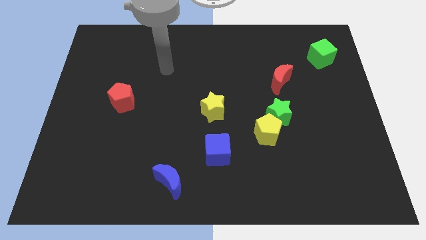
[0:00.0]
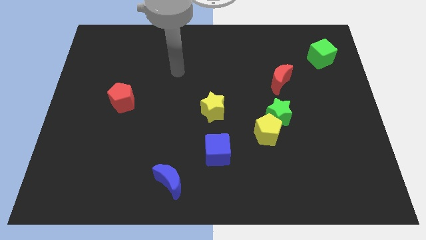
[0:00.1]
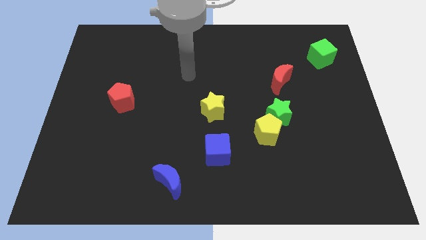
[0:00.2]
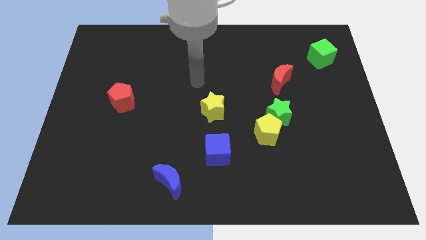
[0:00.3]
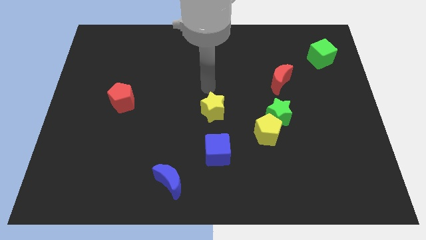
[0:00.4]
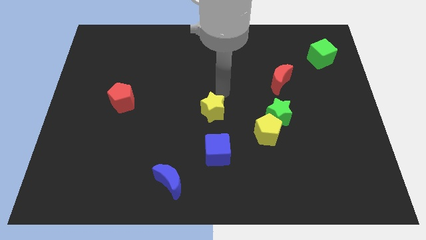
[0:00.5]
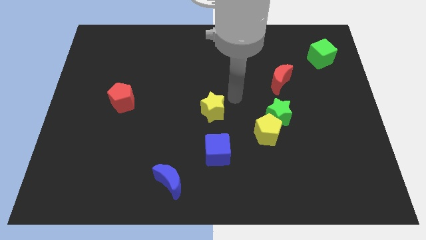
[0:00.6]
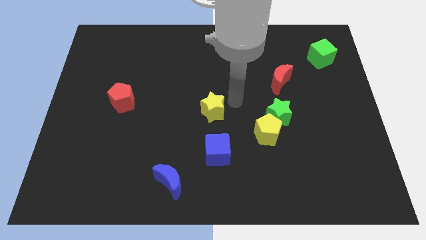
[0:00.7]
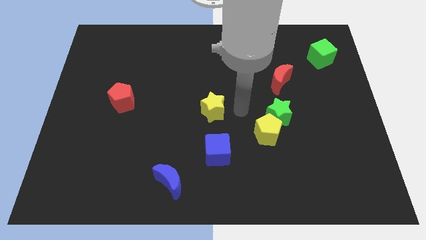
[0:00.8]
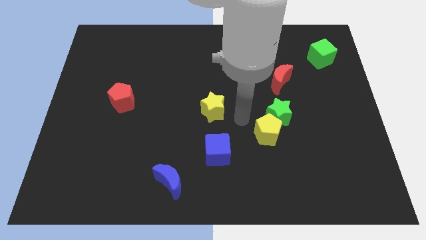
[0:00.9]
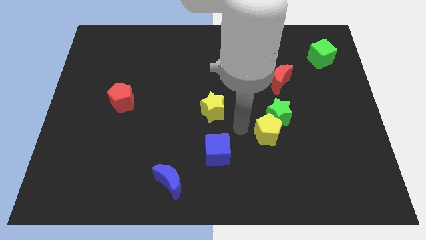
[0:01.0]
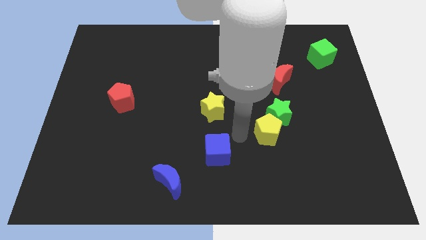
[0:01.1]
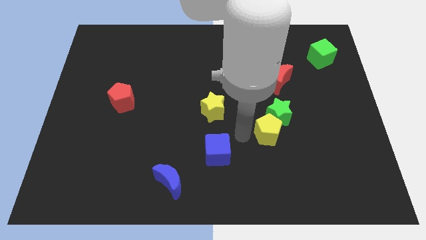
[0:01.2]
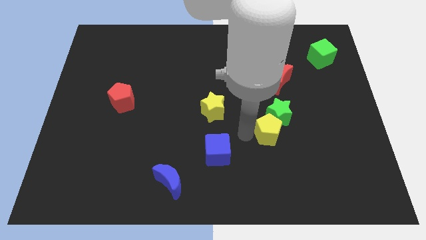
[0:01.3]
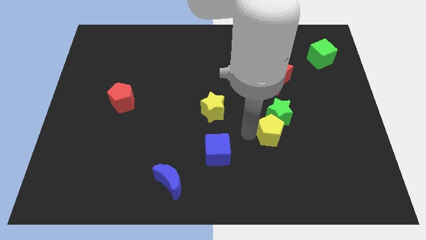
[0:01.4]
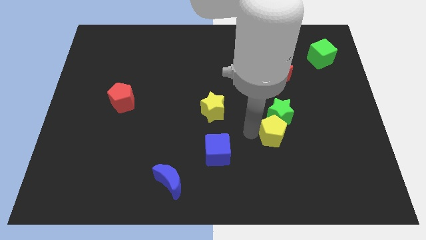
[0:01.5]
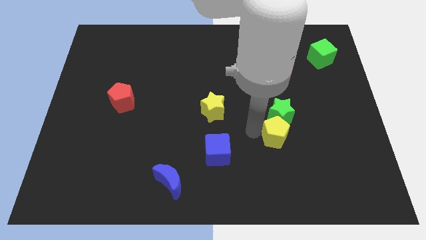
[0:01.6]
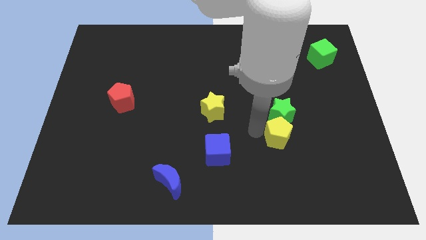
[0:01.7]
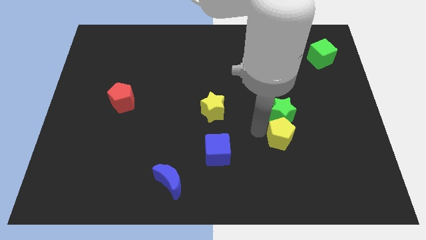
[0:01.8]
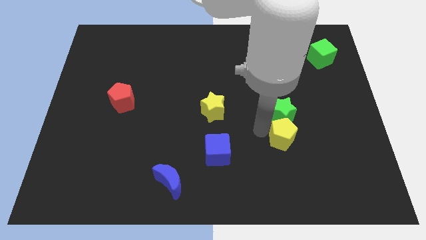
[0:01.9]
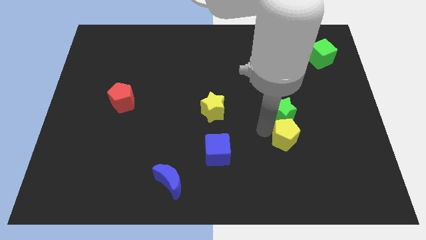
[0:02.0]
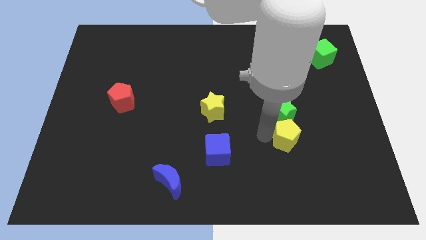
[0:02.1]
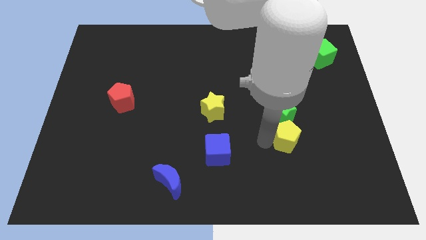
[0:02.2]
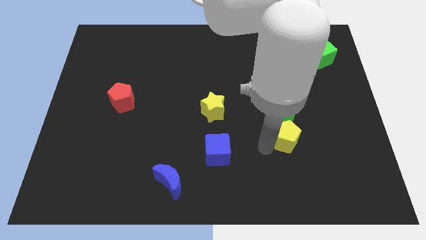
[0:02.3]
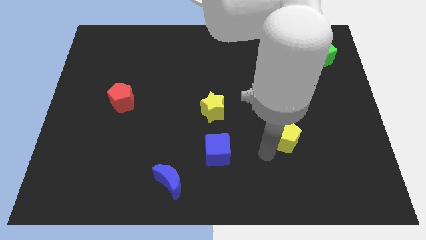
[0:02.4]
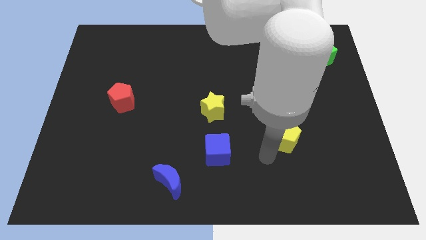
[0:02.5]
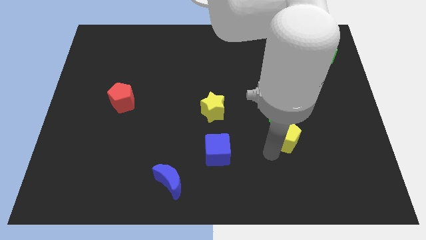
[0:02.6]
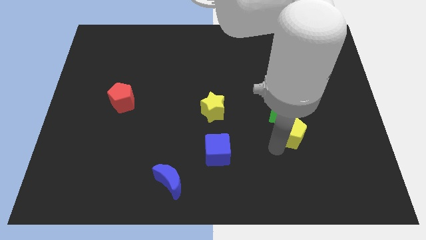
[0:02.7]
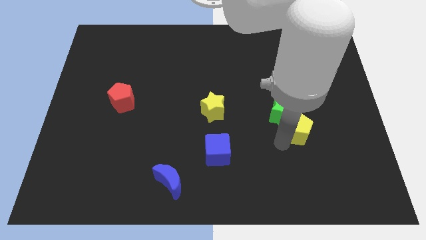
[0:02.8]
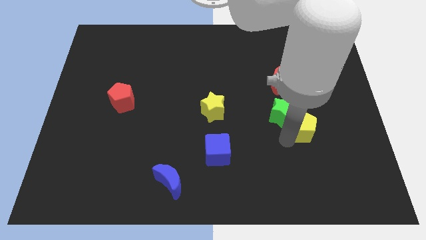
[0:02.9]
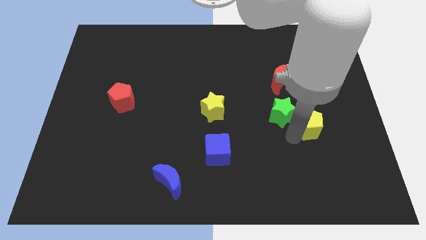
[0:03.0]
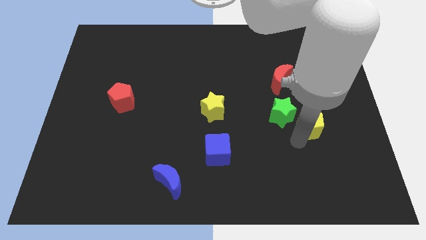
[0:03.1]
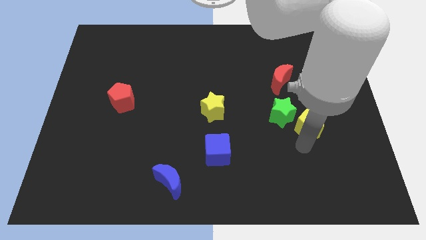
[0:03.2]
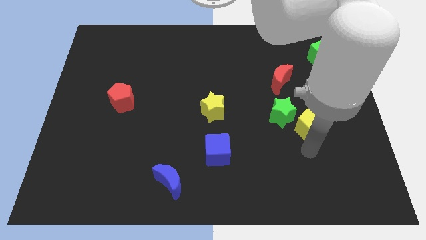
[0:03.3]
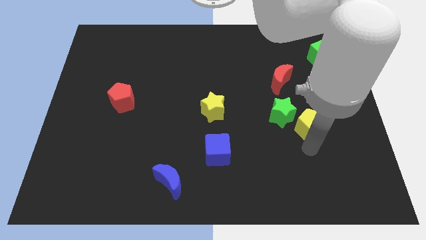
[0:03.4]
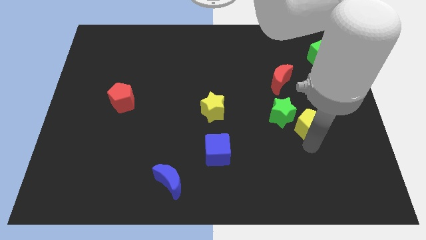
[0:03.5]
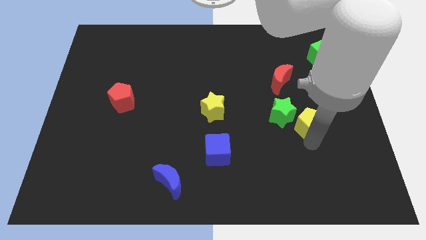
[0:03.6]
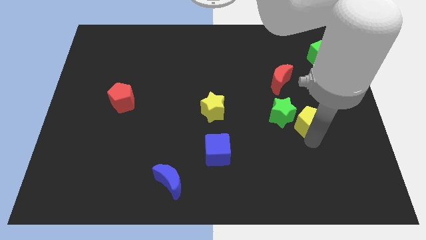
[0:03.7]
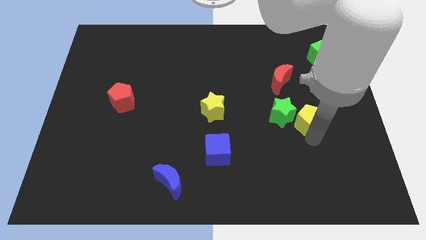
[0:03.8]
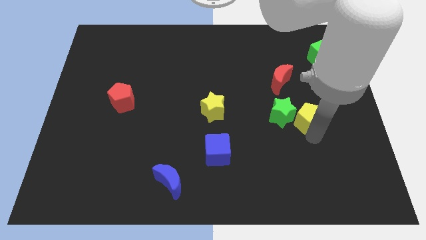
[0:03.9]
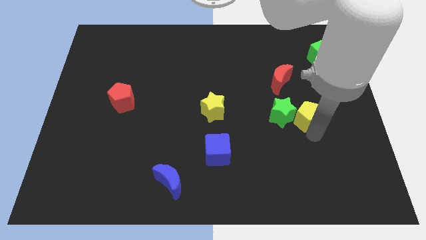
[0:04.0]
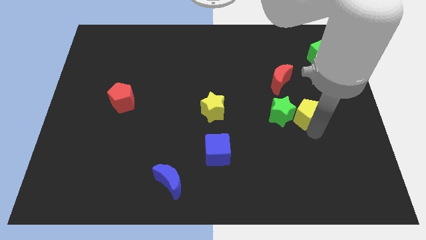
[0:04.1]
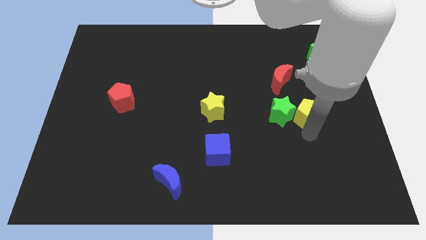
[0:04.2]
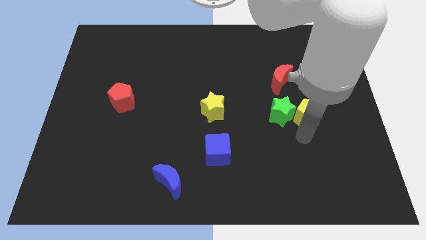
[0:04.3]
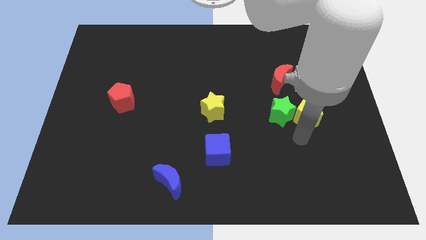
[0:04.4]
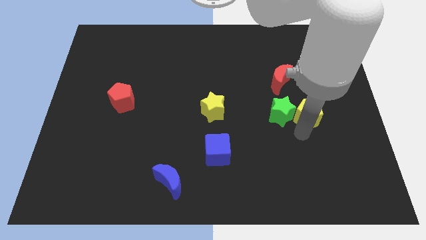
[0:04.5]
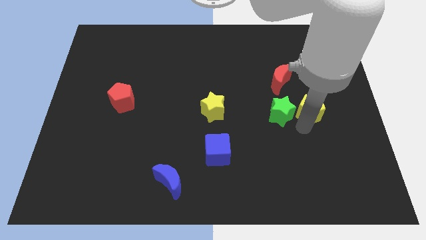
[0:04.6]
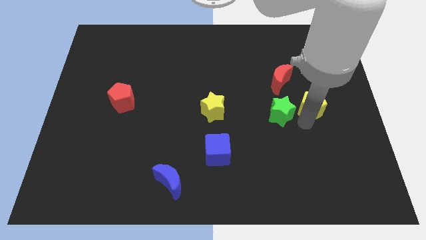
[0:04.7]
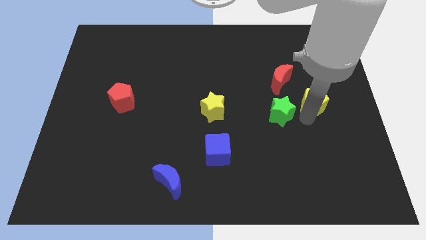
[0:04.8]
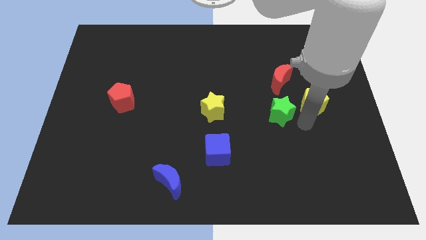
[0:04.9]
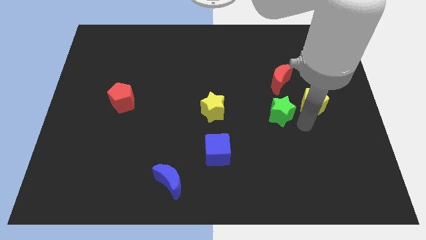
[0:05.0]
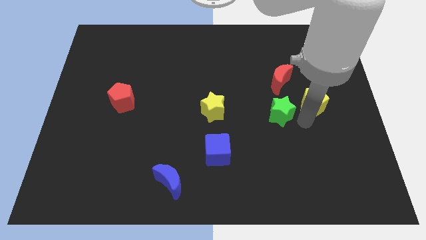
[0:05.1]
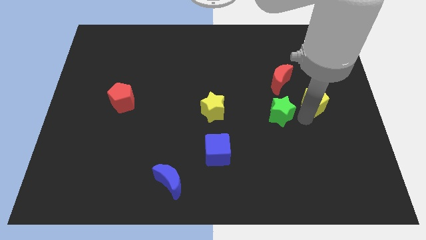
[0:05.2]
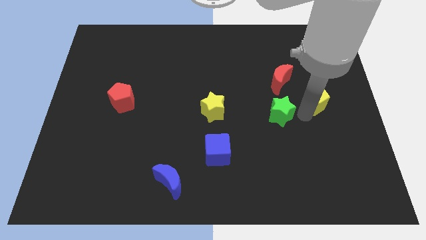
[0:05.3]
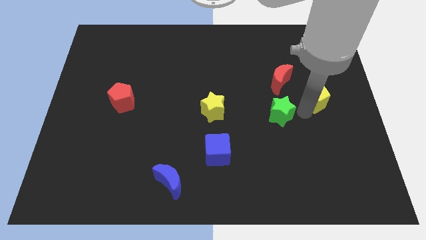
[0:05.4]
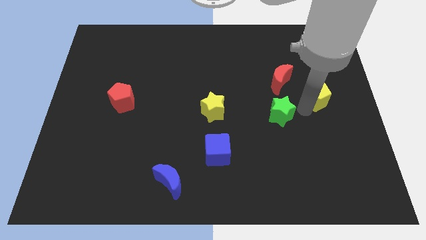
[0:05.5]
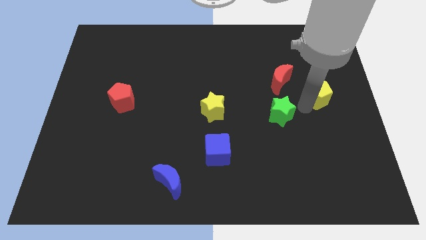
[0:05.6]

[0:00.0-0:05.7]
put the yellow pentagon to the right of the red moon

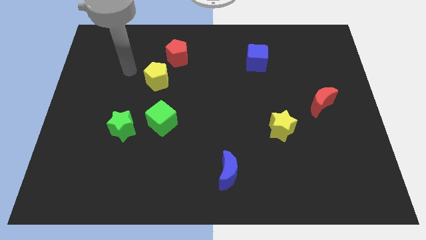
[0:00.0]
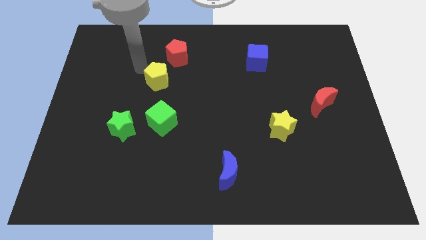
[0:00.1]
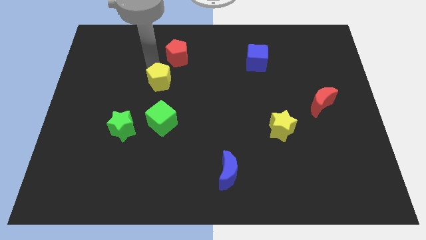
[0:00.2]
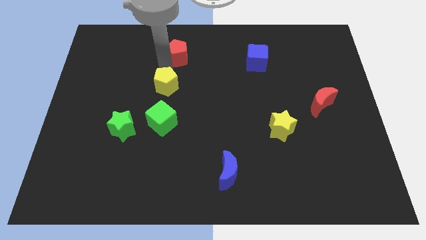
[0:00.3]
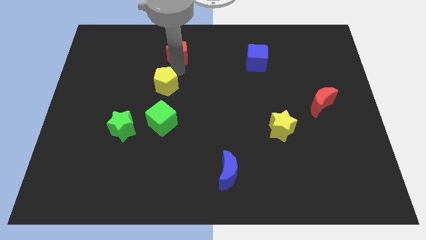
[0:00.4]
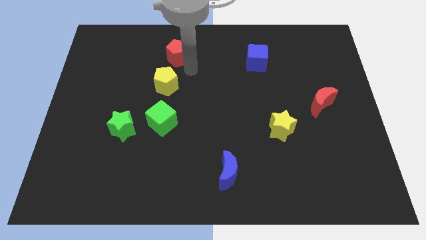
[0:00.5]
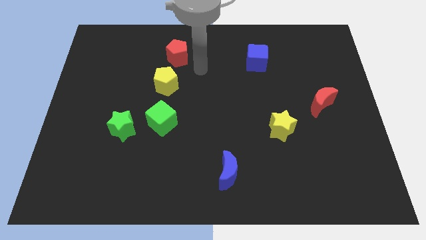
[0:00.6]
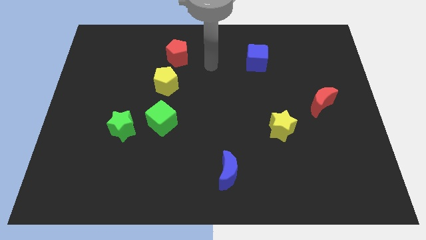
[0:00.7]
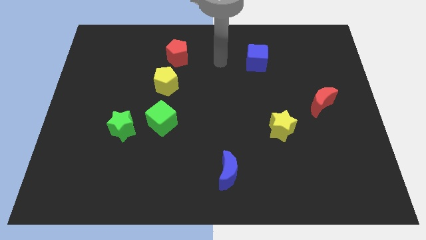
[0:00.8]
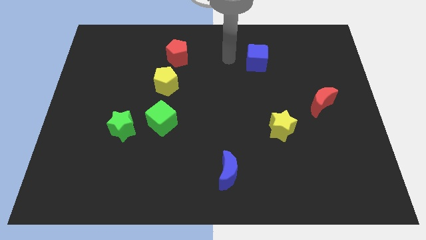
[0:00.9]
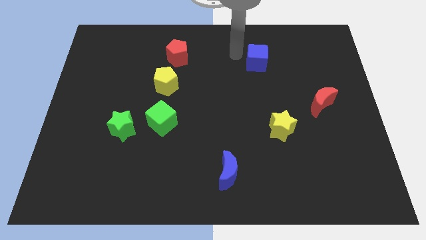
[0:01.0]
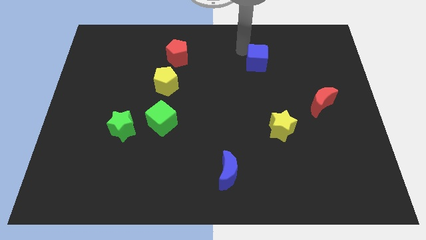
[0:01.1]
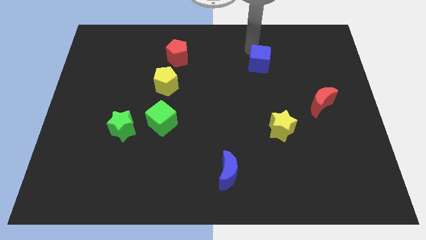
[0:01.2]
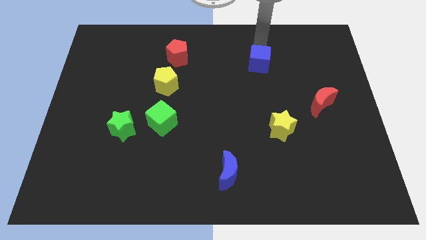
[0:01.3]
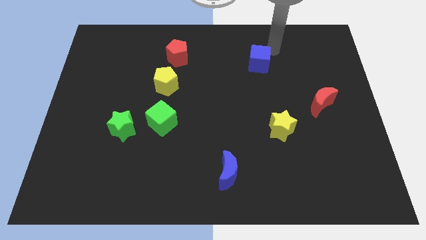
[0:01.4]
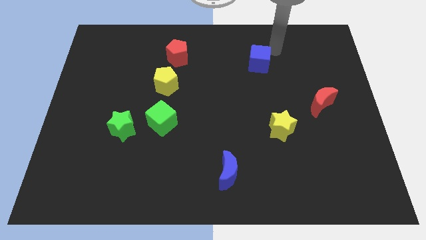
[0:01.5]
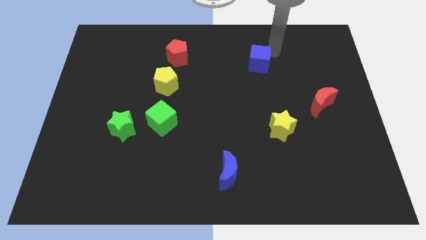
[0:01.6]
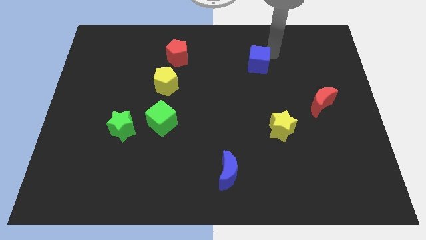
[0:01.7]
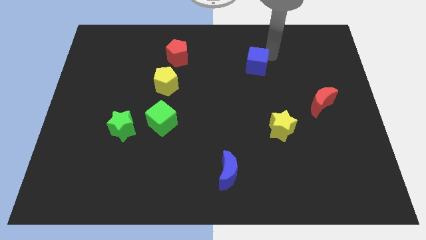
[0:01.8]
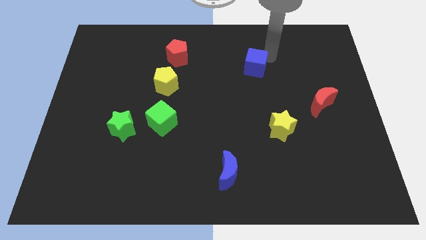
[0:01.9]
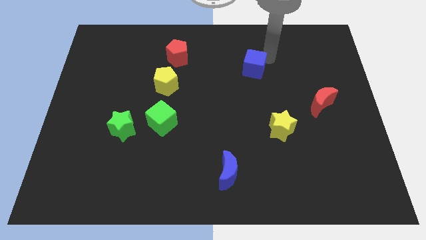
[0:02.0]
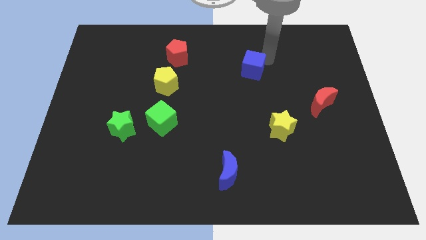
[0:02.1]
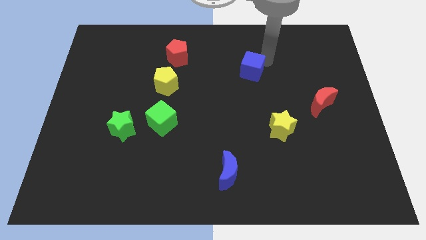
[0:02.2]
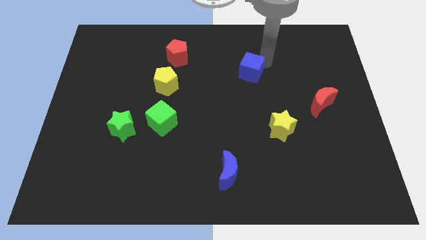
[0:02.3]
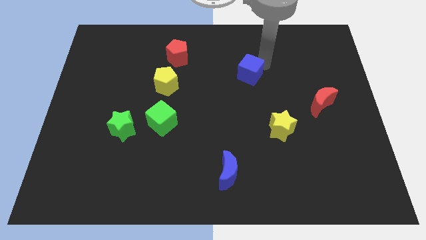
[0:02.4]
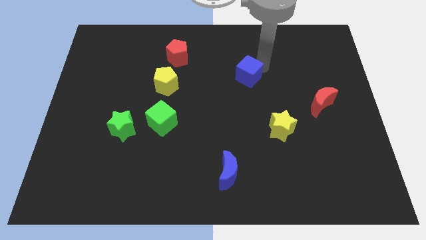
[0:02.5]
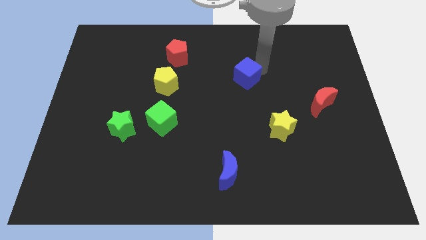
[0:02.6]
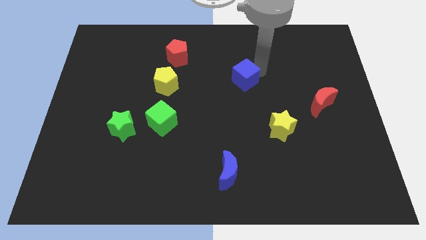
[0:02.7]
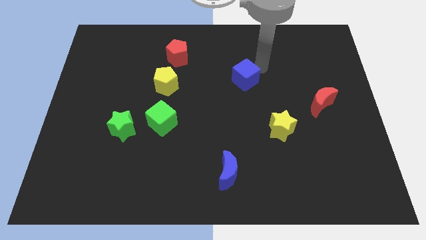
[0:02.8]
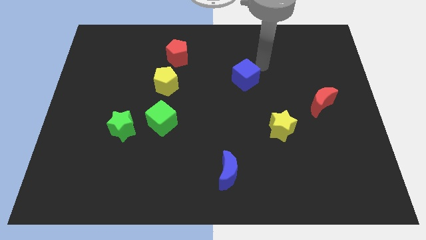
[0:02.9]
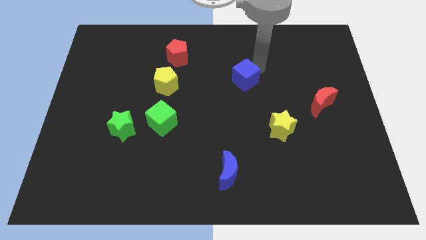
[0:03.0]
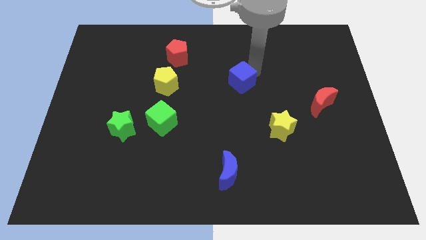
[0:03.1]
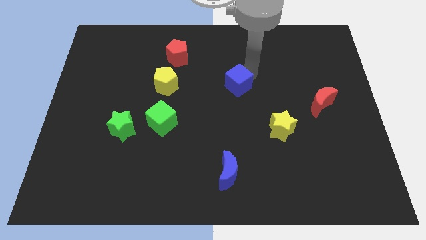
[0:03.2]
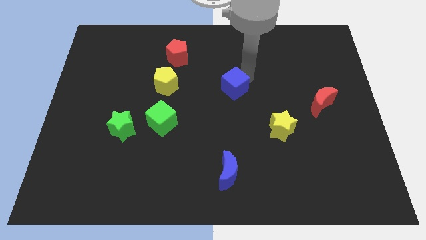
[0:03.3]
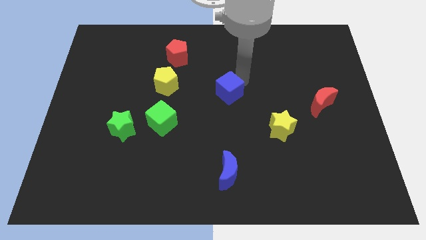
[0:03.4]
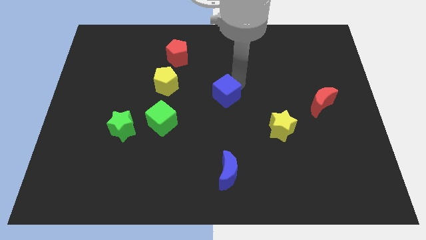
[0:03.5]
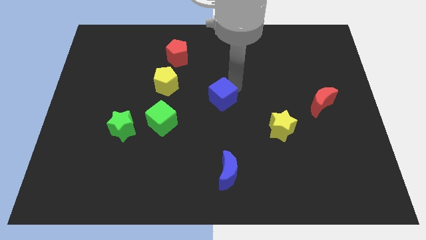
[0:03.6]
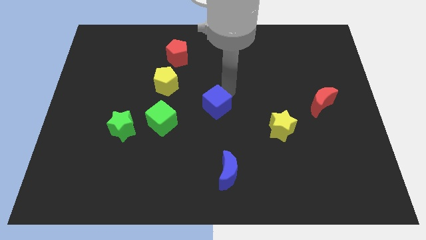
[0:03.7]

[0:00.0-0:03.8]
put the blue cube to the right side of the green cube
